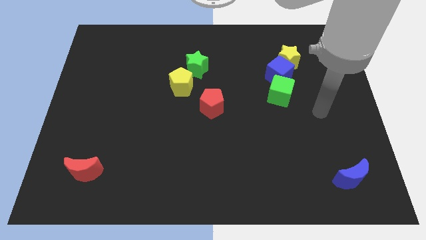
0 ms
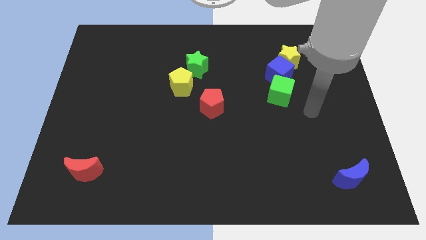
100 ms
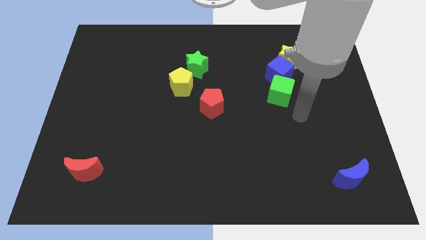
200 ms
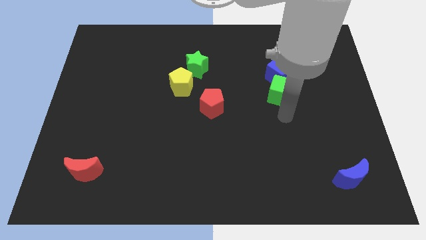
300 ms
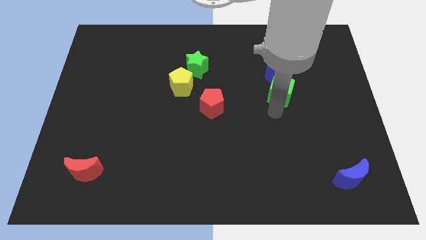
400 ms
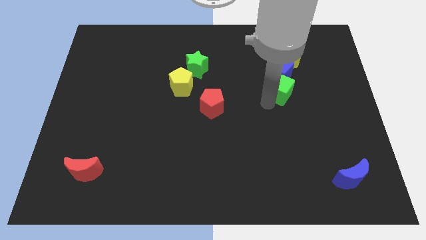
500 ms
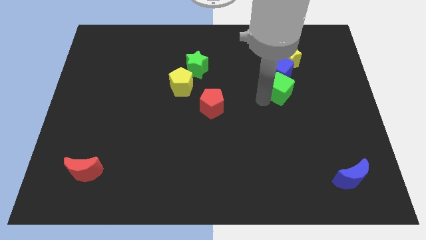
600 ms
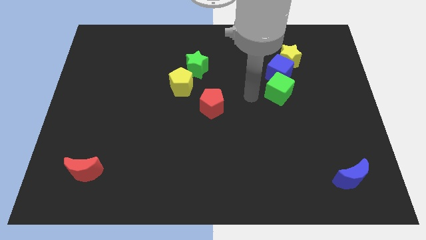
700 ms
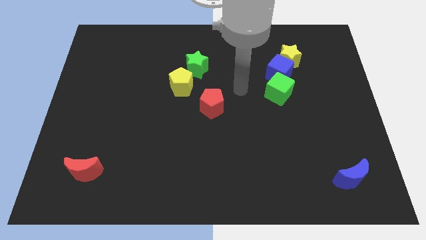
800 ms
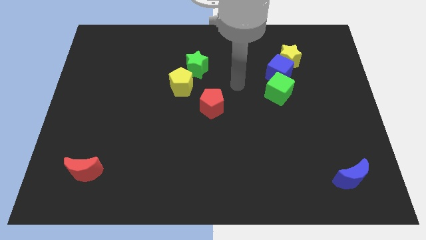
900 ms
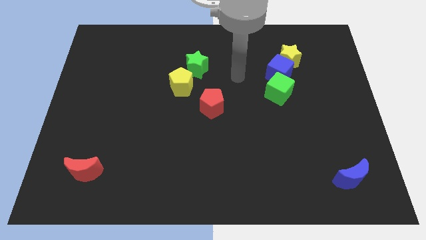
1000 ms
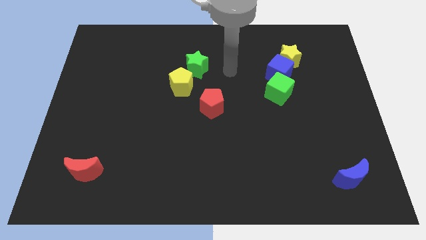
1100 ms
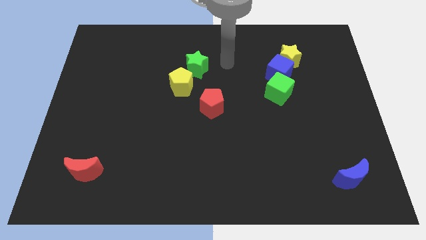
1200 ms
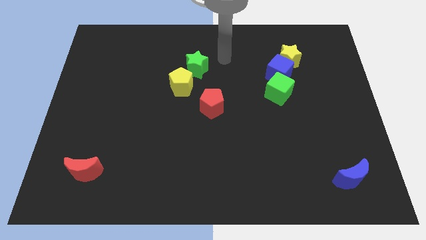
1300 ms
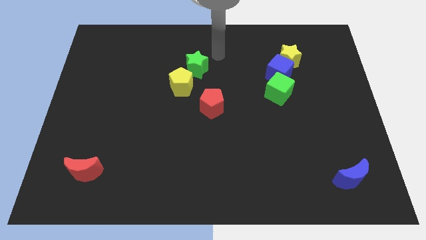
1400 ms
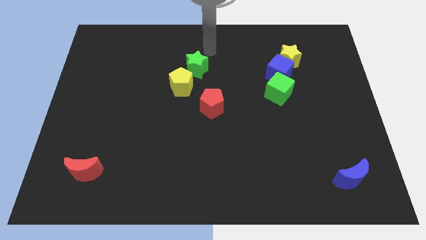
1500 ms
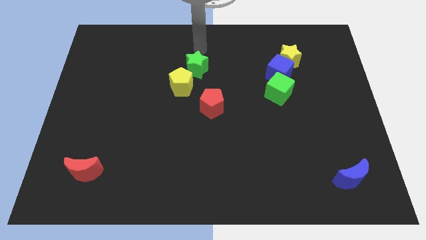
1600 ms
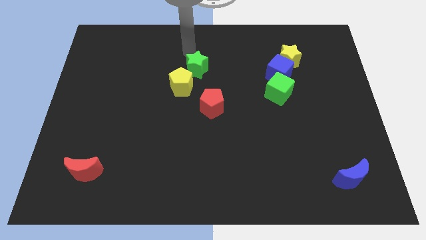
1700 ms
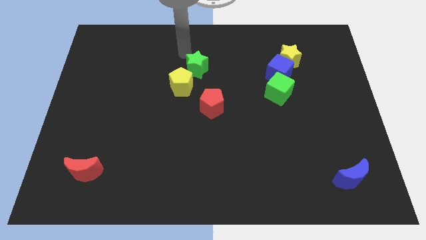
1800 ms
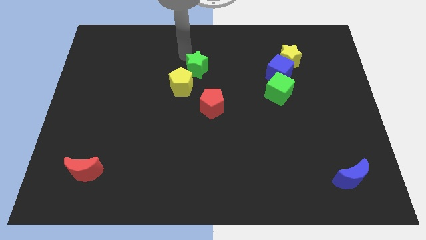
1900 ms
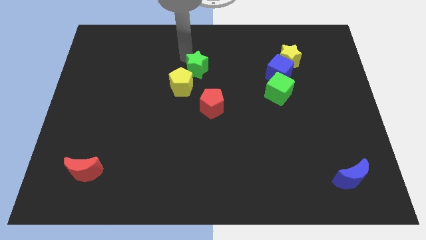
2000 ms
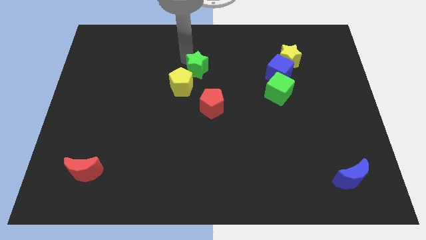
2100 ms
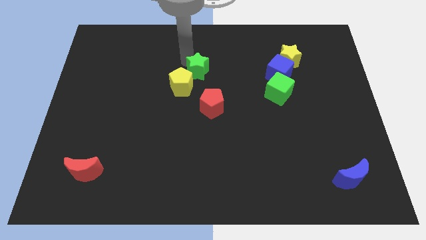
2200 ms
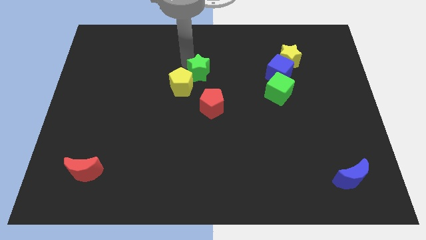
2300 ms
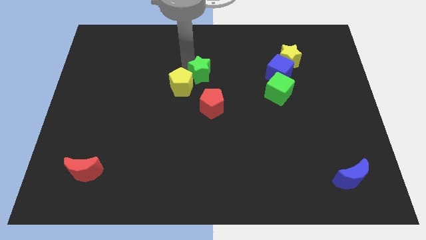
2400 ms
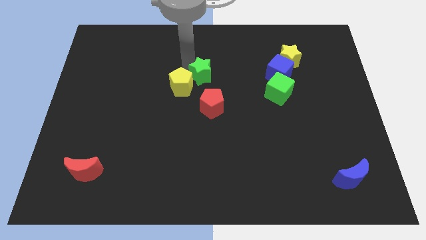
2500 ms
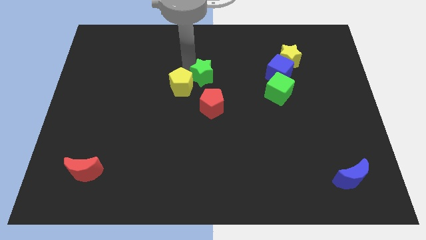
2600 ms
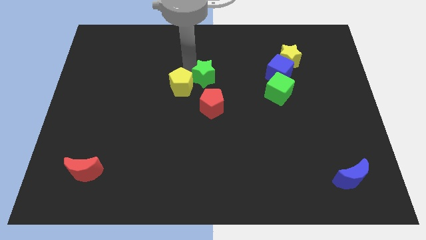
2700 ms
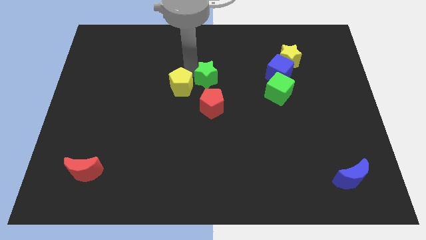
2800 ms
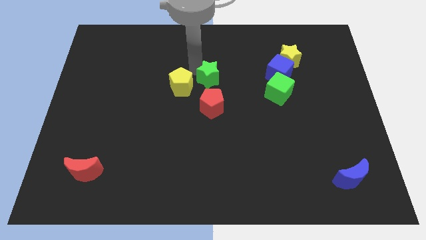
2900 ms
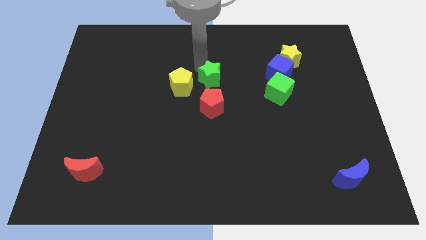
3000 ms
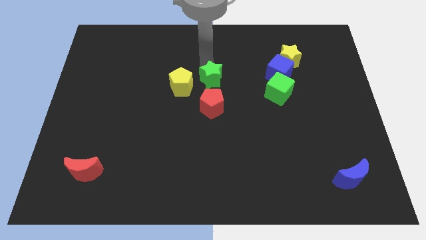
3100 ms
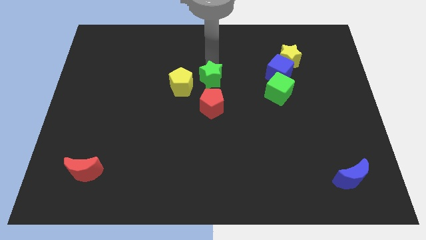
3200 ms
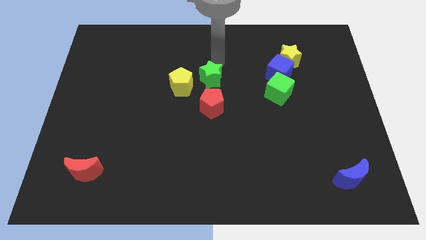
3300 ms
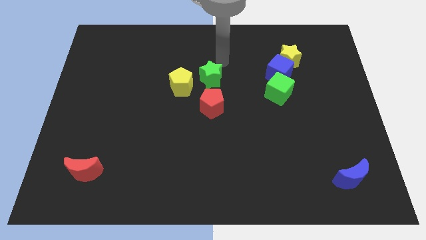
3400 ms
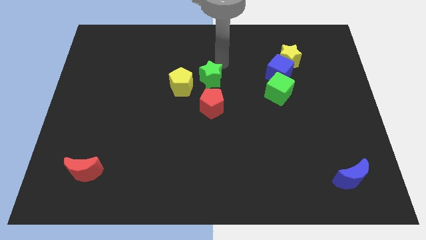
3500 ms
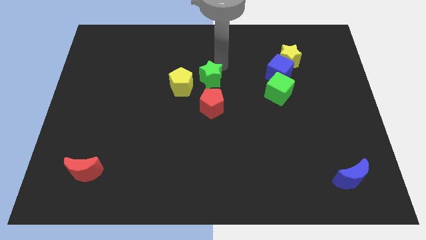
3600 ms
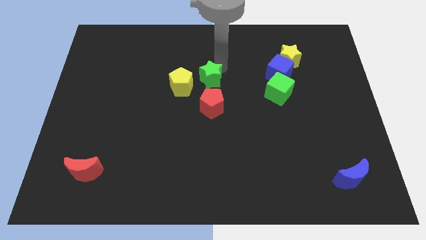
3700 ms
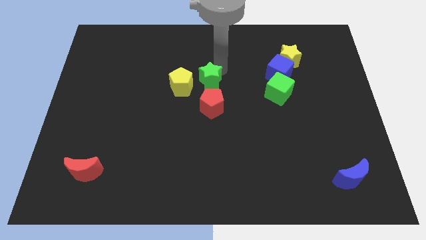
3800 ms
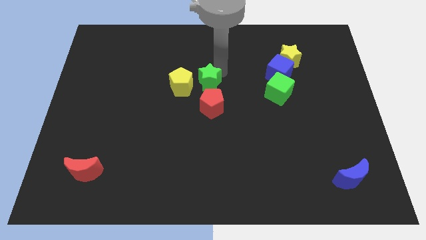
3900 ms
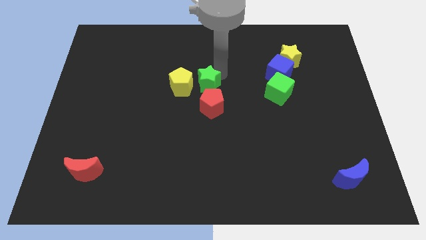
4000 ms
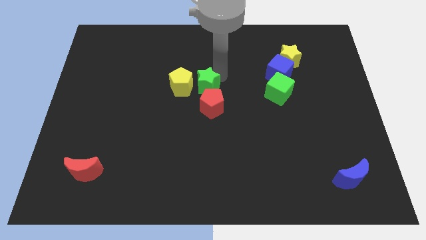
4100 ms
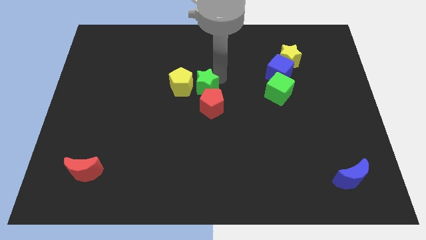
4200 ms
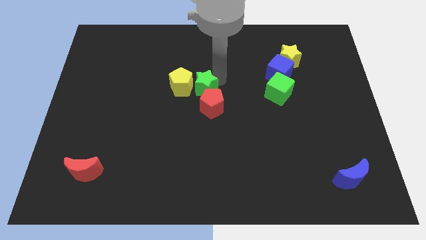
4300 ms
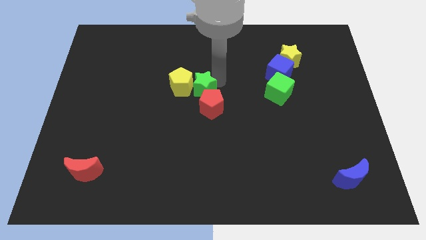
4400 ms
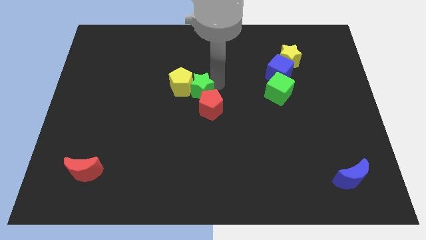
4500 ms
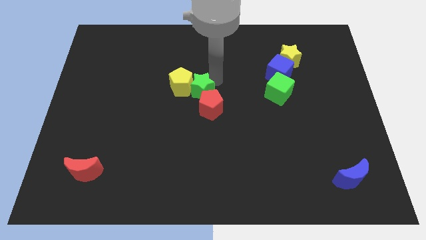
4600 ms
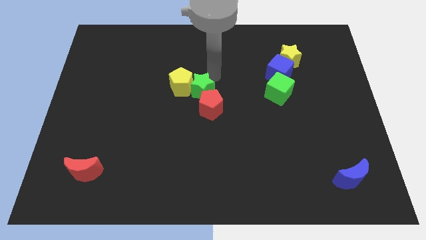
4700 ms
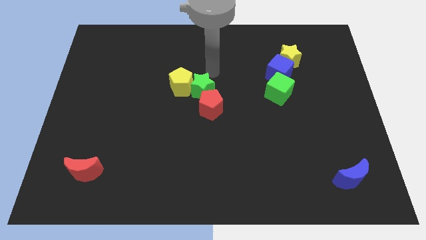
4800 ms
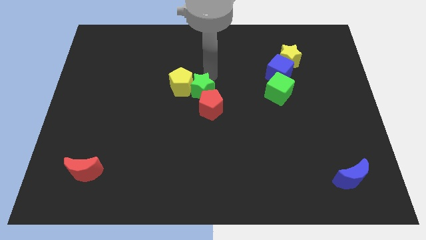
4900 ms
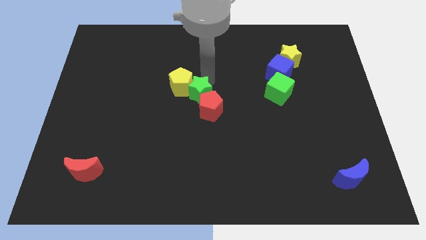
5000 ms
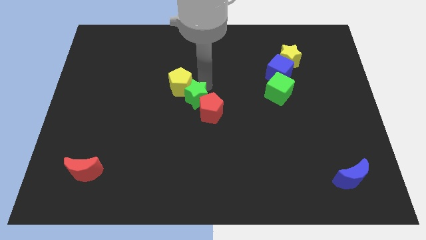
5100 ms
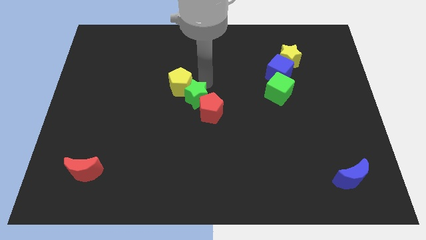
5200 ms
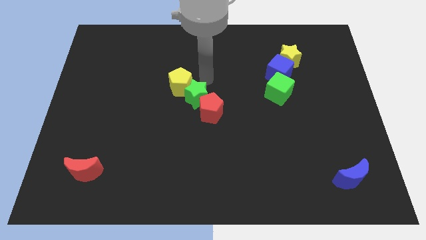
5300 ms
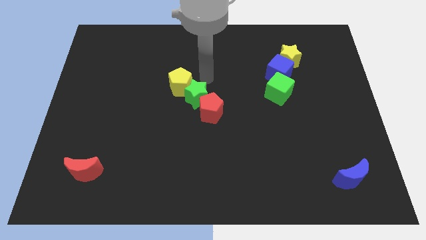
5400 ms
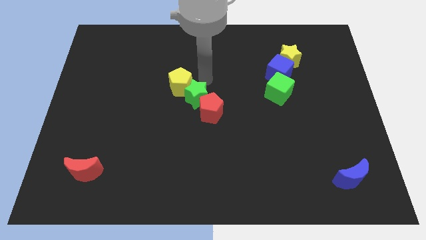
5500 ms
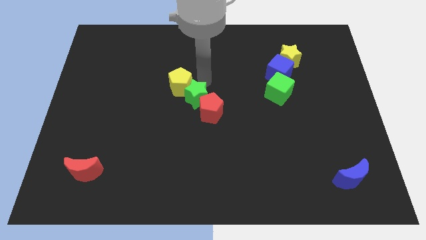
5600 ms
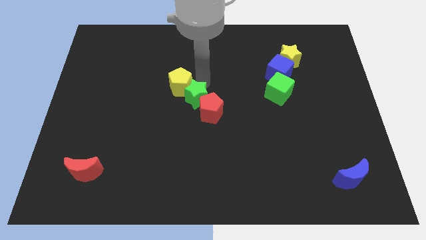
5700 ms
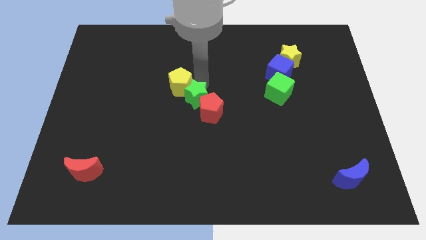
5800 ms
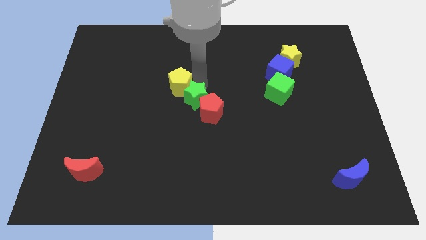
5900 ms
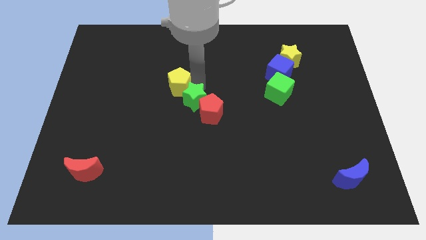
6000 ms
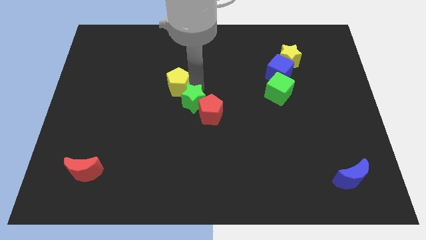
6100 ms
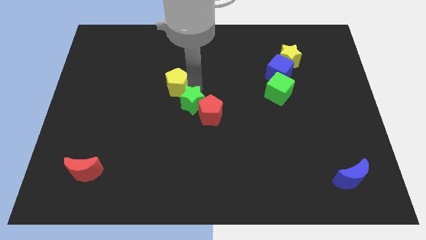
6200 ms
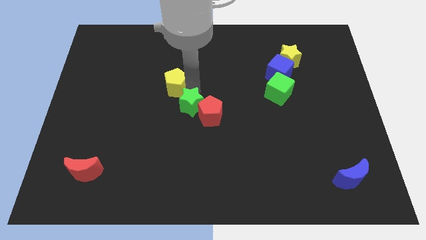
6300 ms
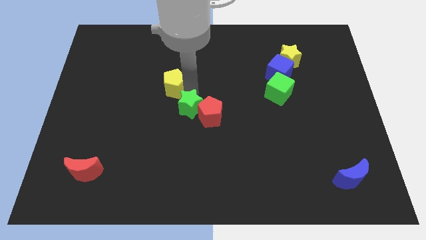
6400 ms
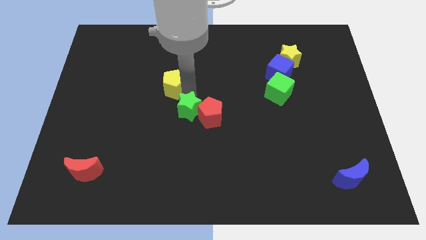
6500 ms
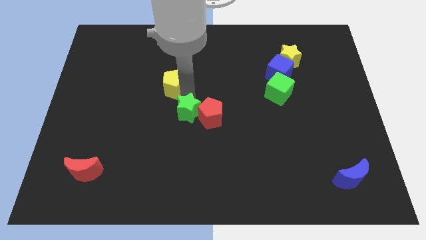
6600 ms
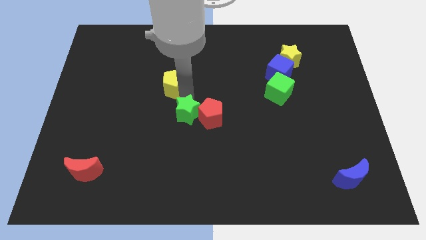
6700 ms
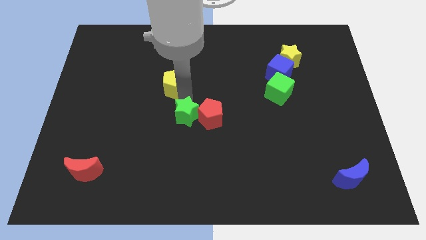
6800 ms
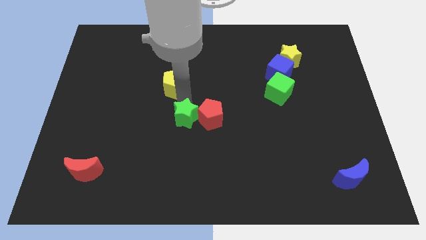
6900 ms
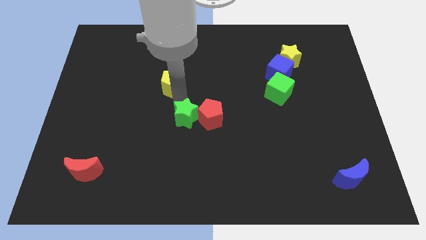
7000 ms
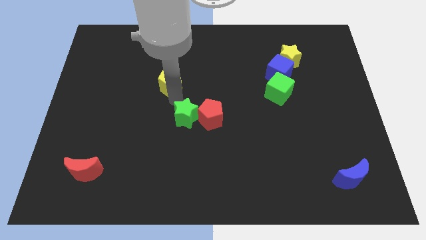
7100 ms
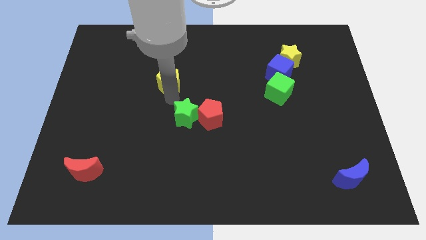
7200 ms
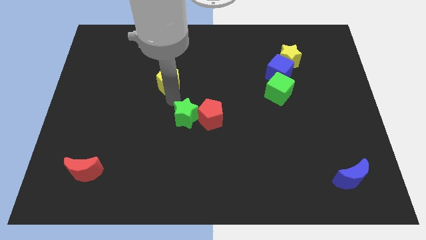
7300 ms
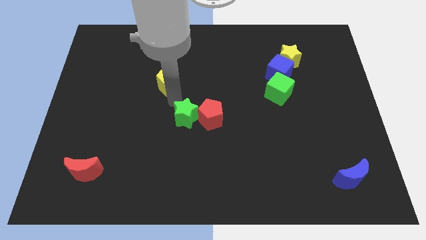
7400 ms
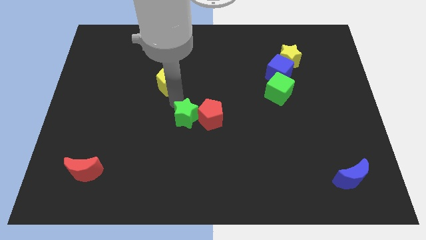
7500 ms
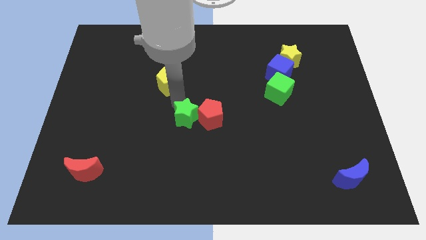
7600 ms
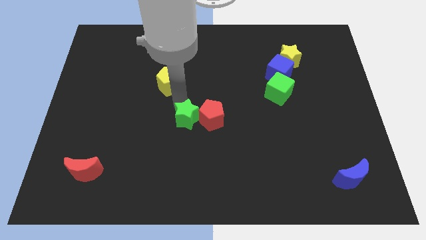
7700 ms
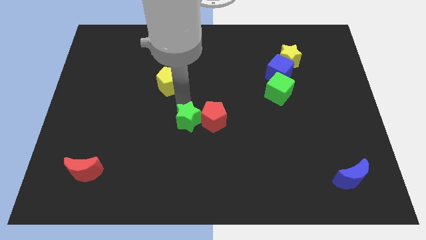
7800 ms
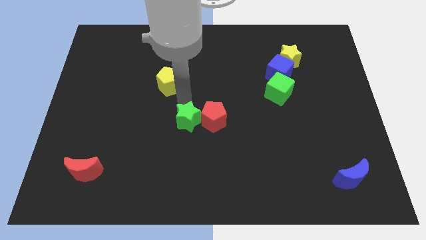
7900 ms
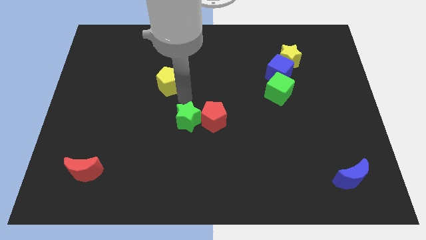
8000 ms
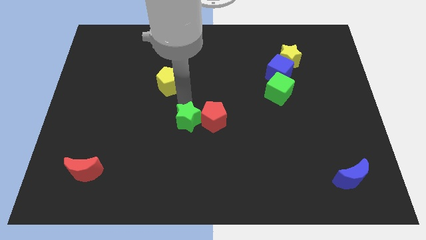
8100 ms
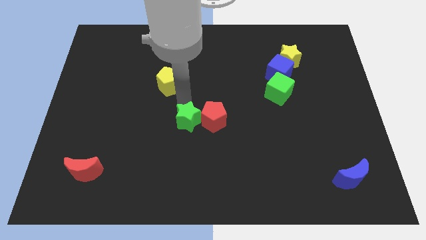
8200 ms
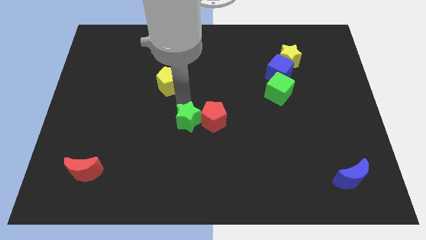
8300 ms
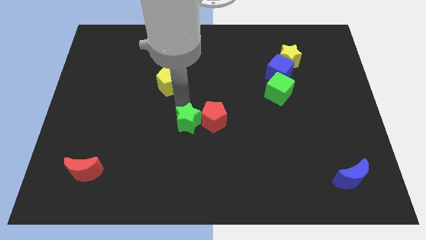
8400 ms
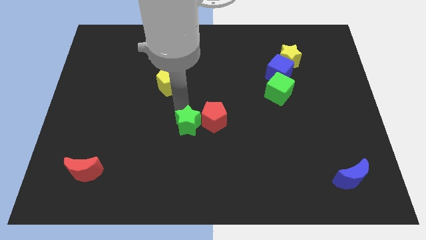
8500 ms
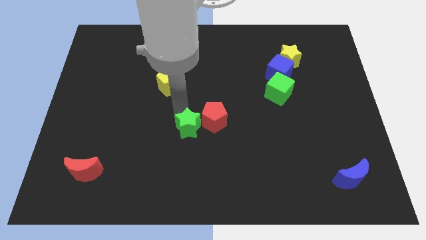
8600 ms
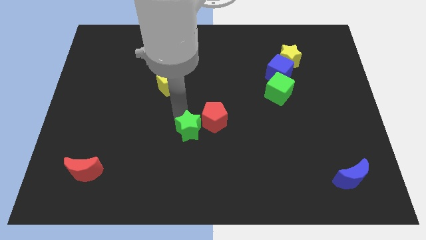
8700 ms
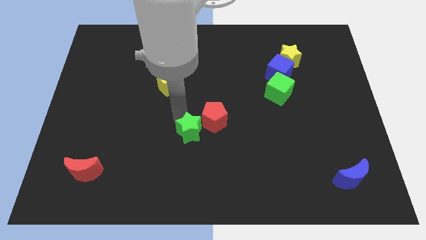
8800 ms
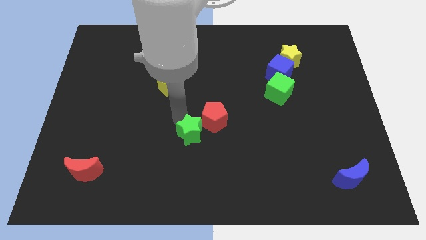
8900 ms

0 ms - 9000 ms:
slide the green star downwards
